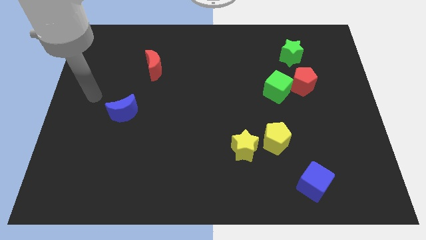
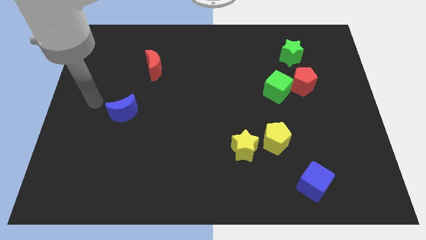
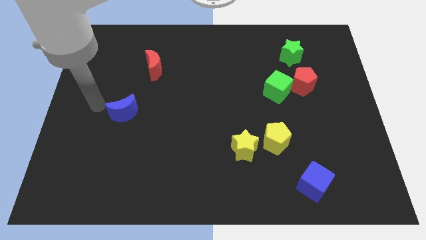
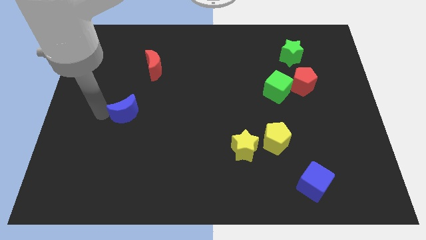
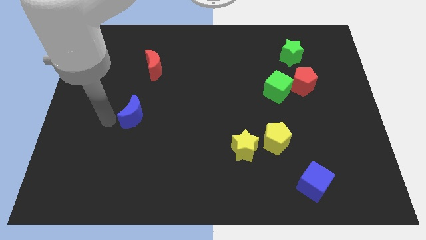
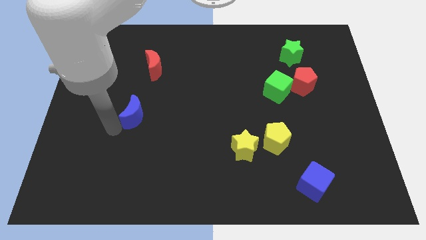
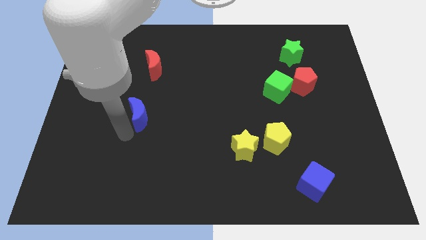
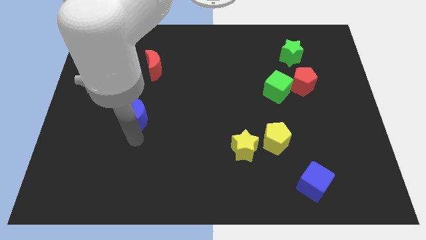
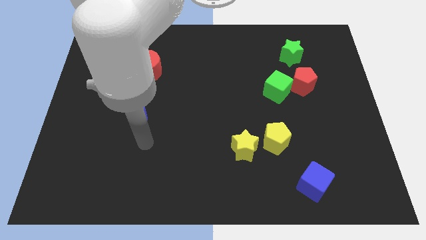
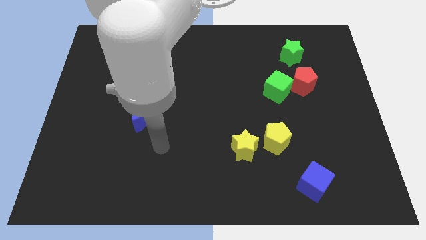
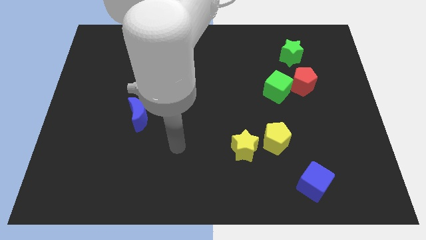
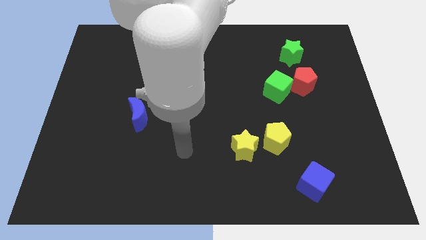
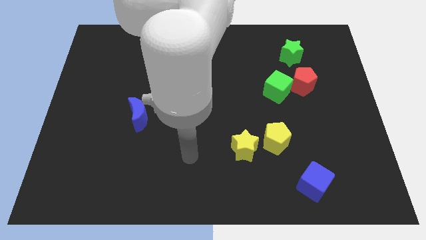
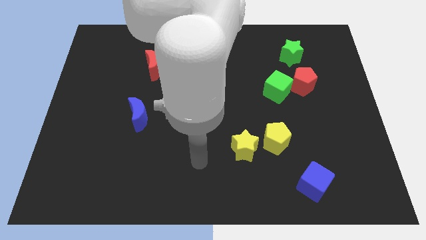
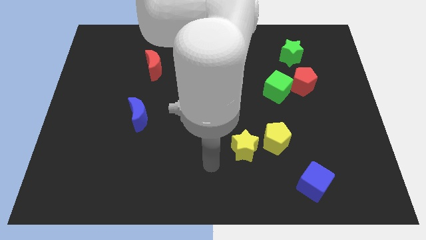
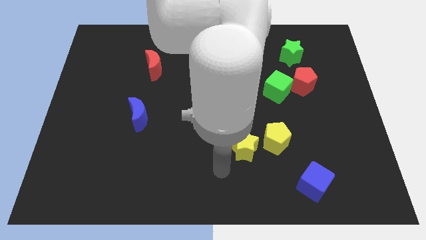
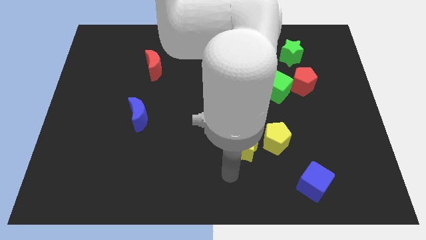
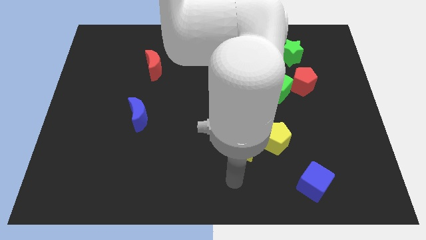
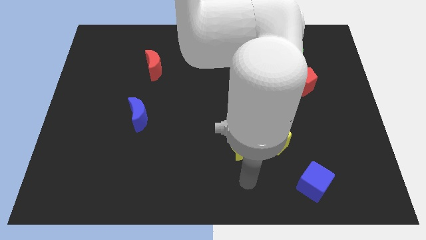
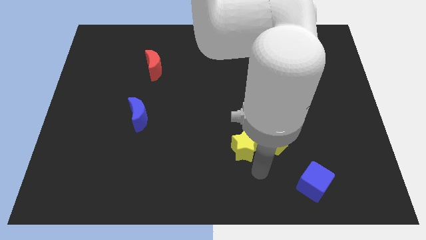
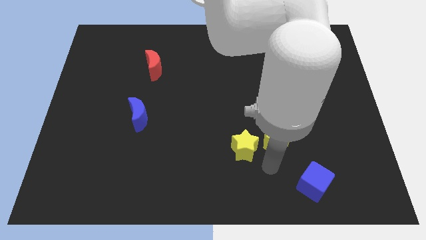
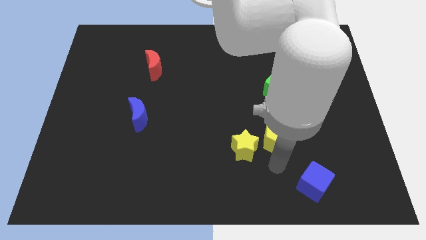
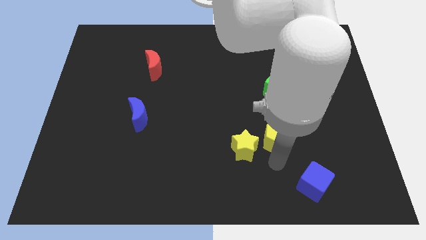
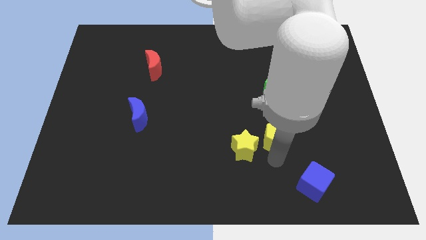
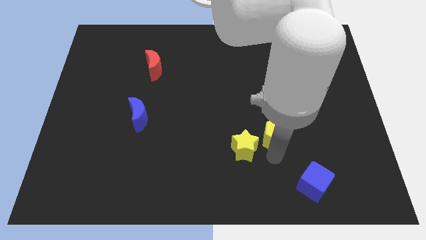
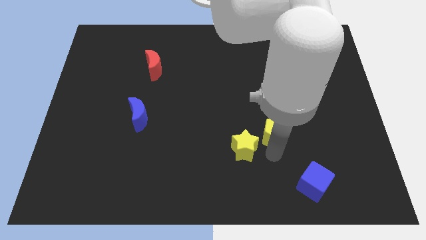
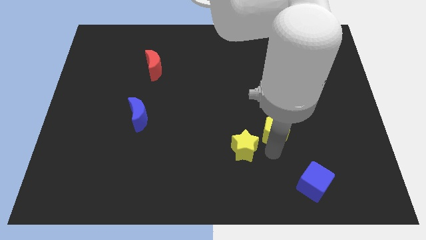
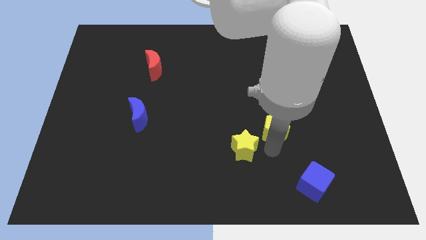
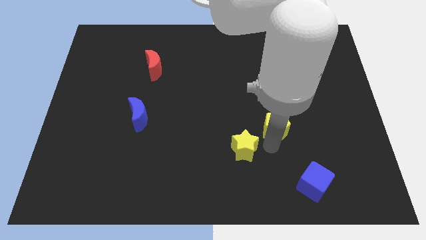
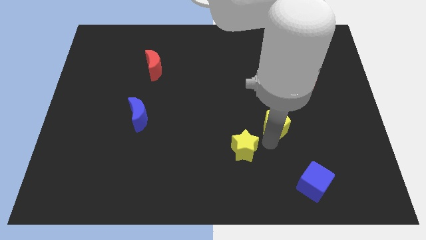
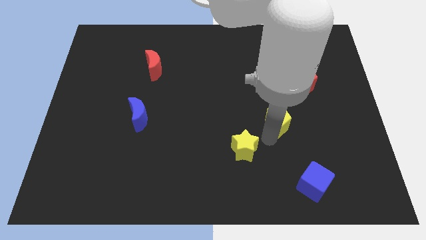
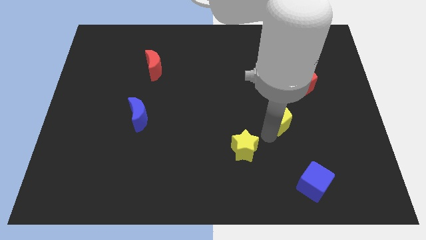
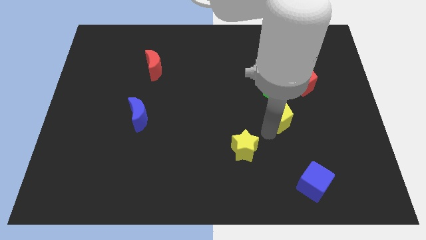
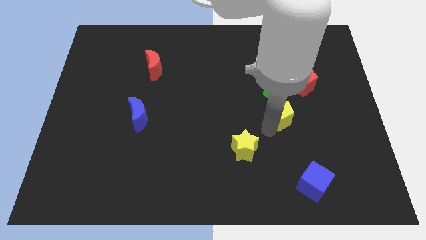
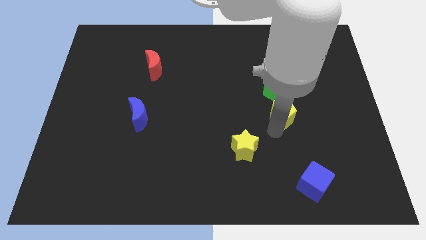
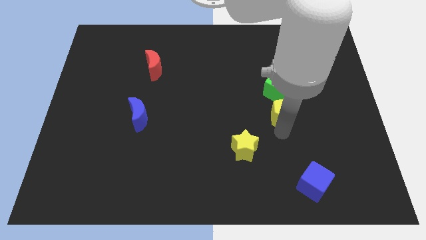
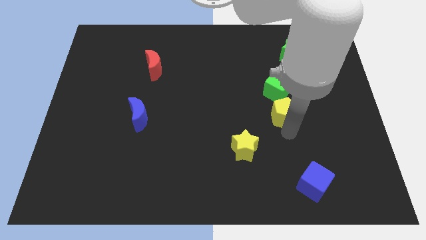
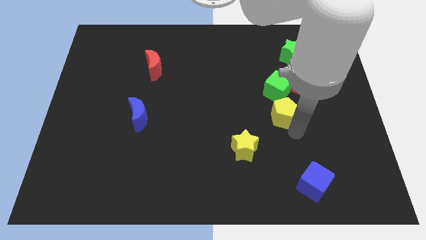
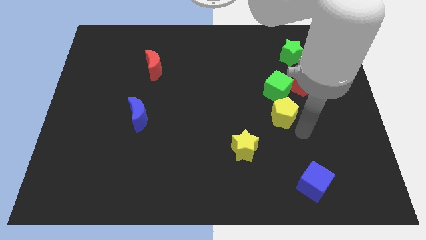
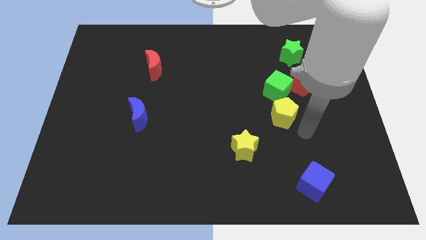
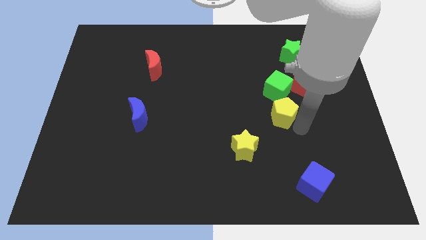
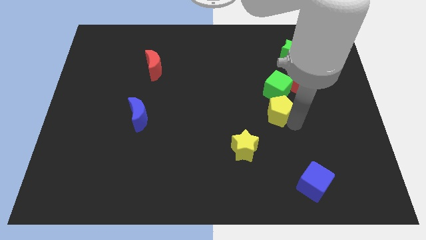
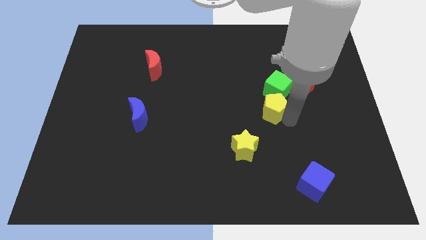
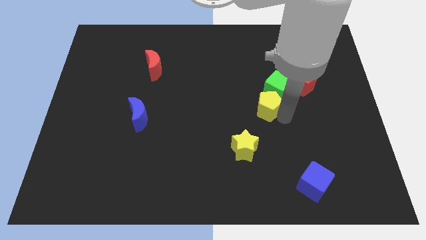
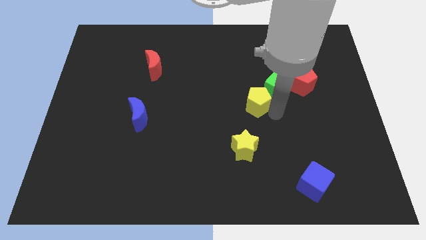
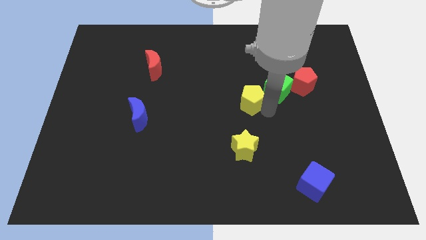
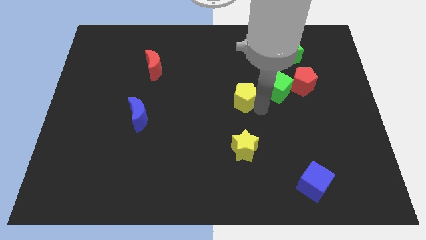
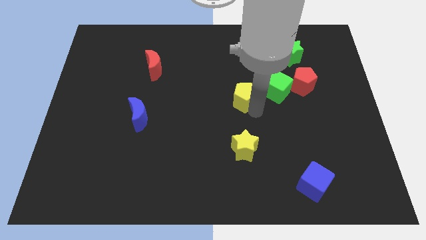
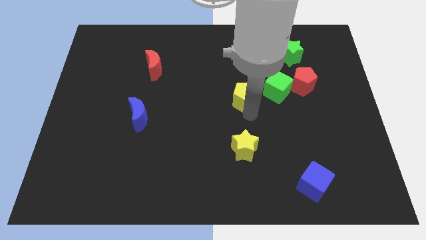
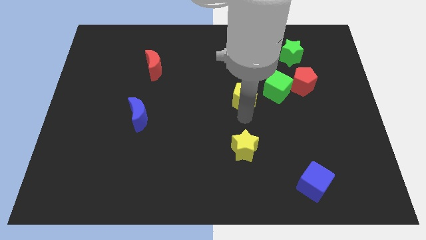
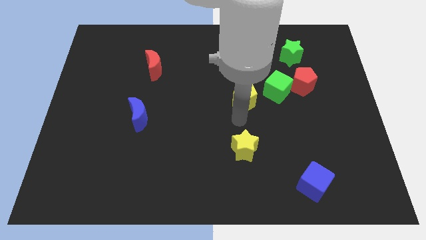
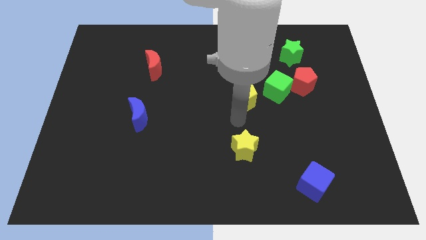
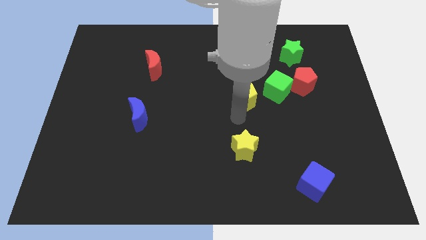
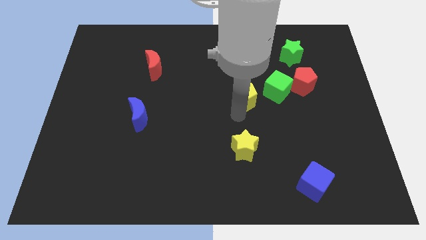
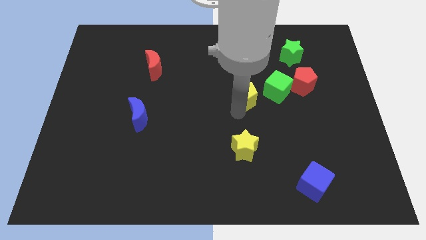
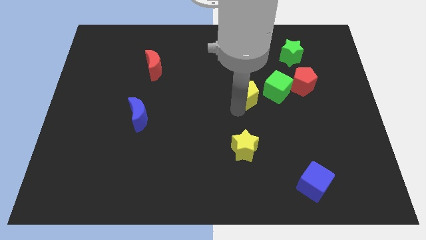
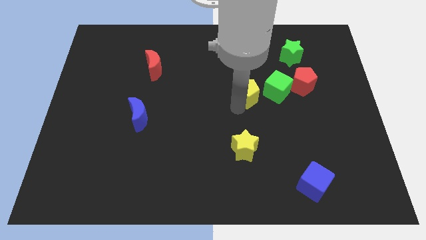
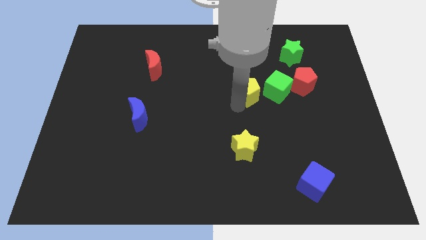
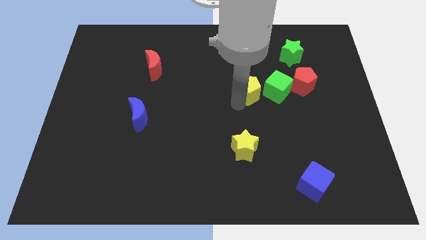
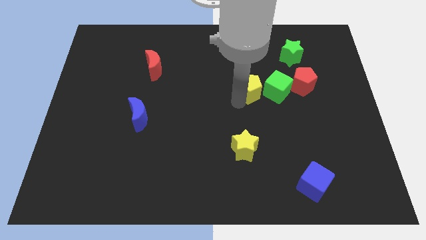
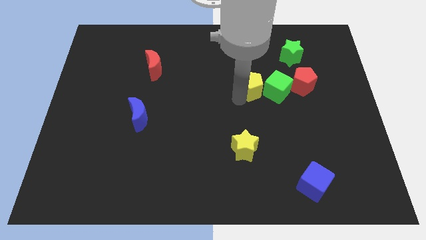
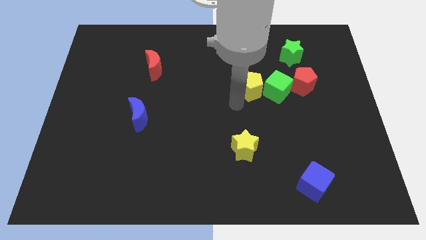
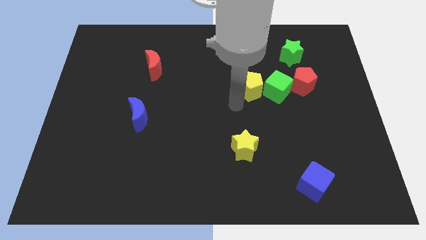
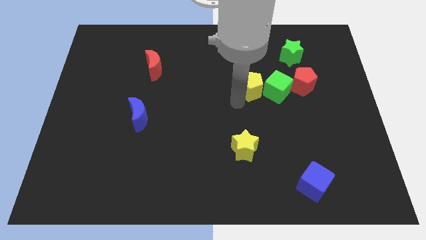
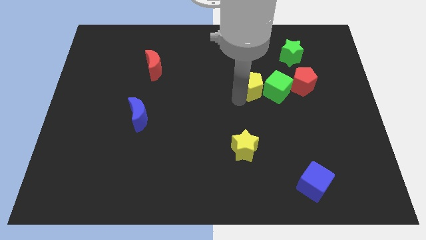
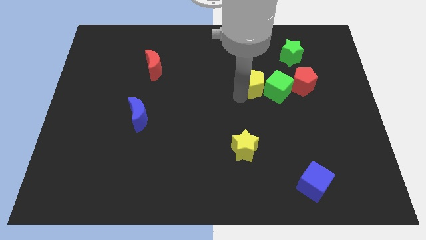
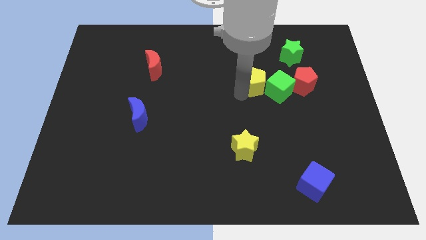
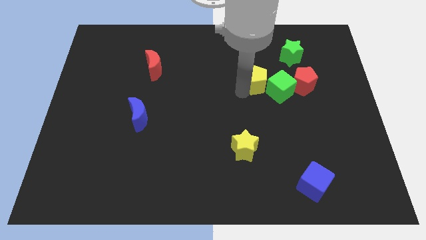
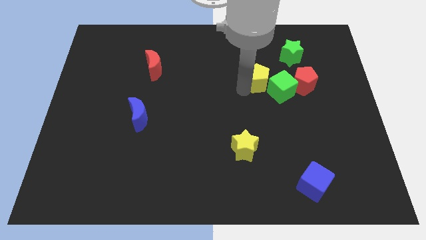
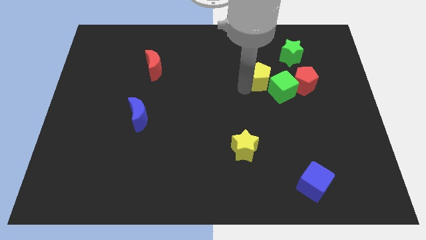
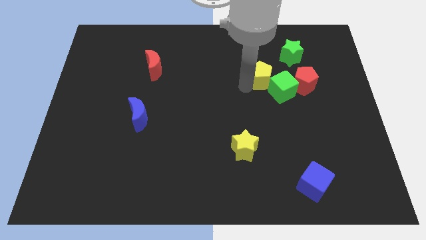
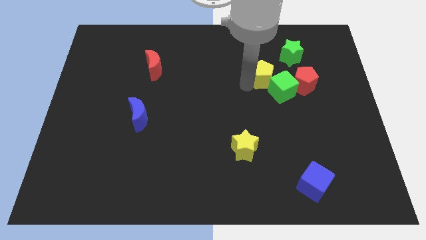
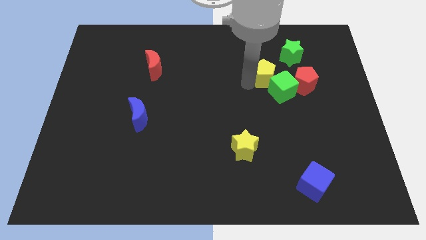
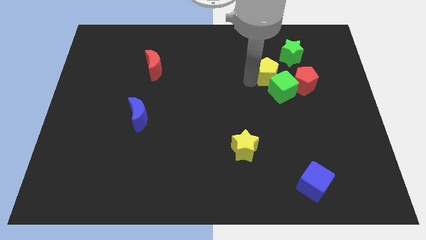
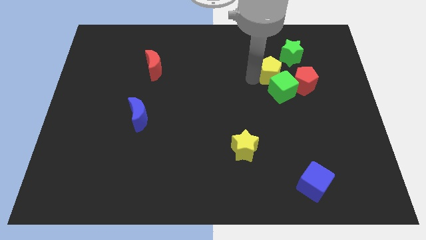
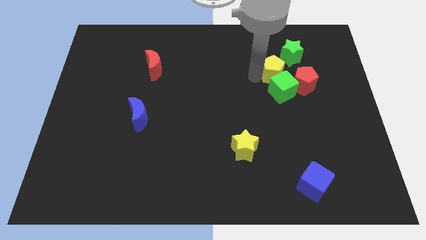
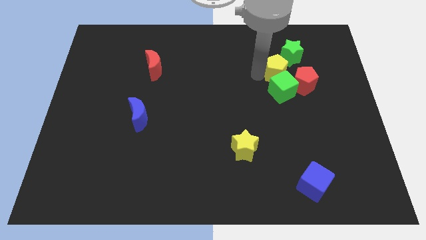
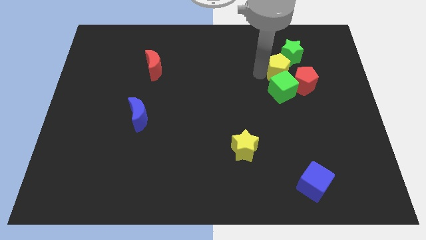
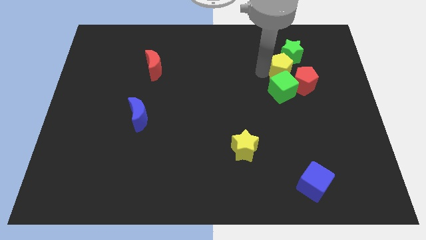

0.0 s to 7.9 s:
move the yellow pentagon close to the green star
